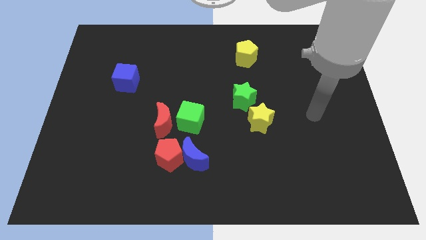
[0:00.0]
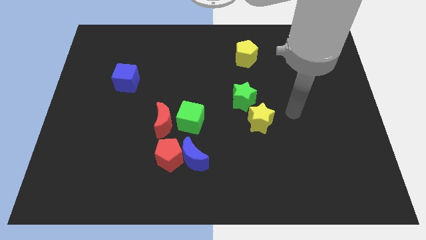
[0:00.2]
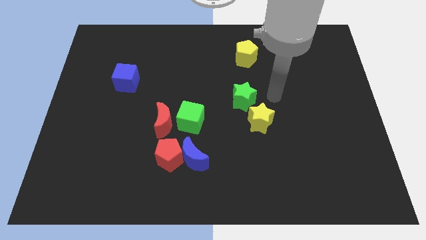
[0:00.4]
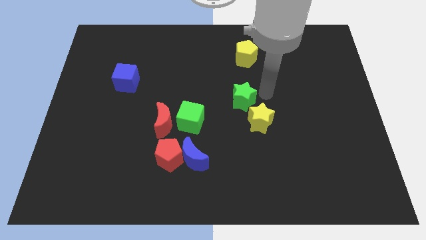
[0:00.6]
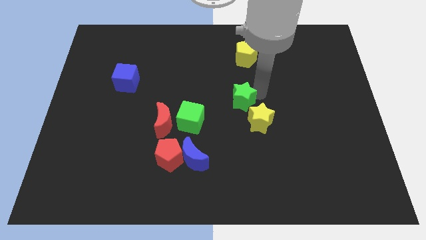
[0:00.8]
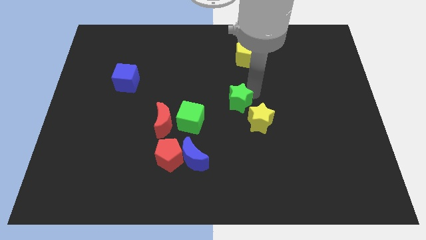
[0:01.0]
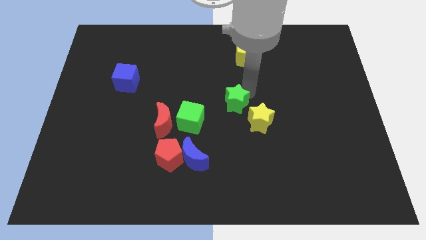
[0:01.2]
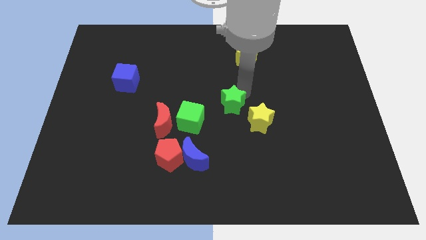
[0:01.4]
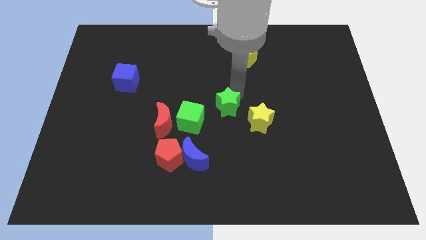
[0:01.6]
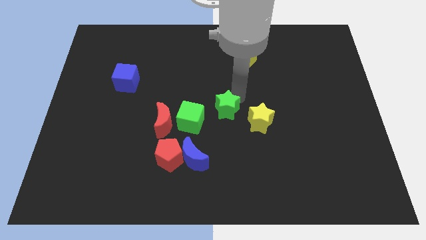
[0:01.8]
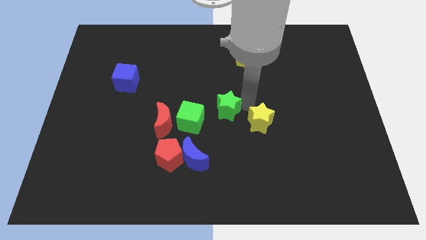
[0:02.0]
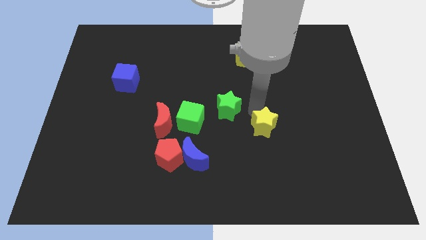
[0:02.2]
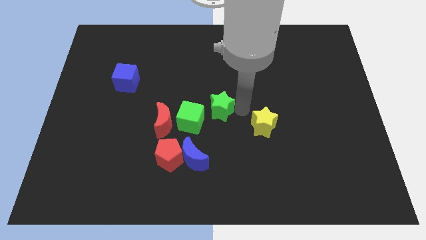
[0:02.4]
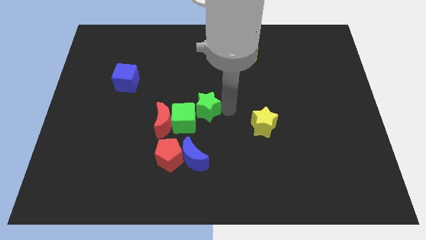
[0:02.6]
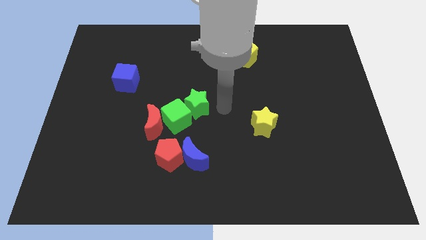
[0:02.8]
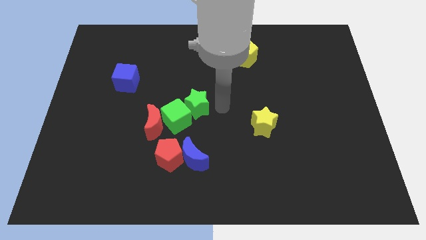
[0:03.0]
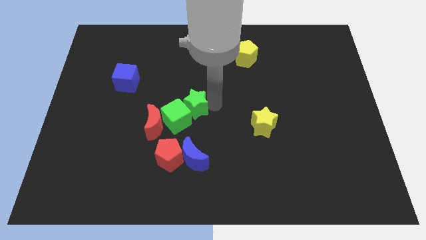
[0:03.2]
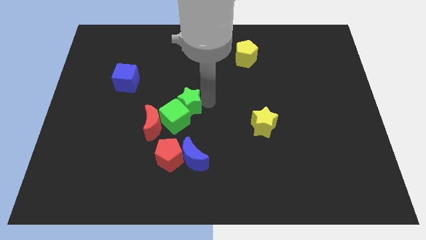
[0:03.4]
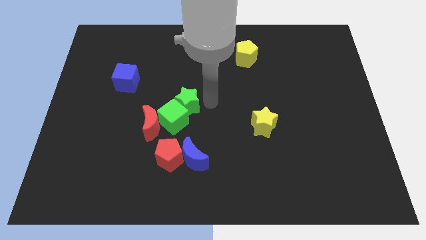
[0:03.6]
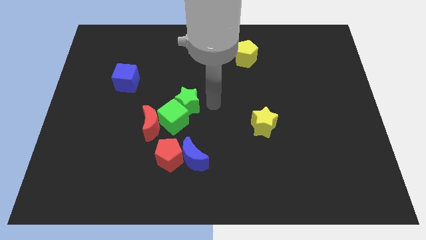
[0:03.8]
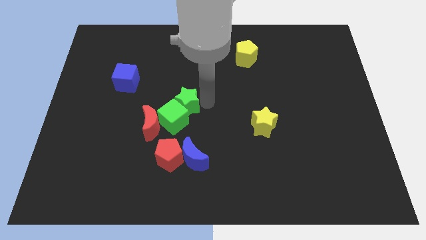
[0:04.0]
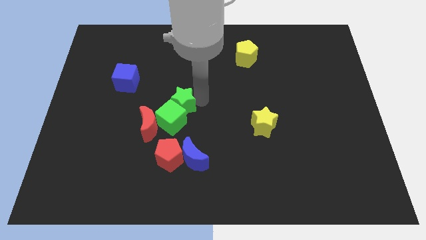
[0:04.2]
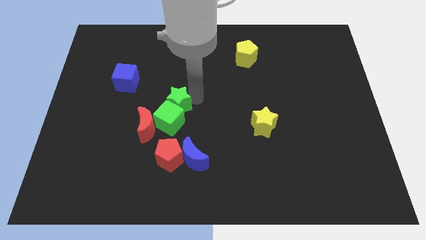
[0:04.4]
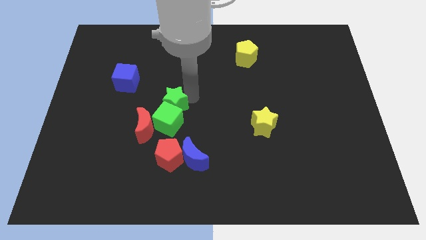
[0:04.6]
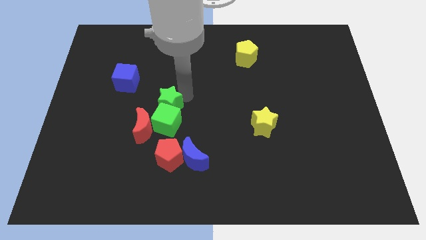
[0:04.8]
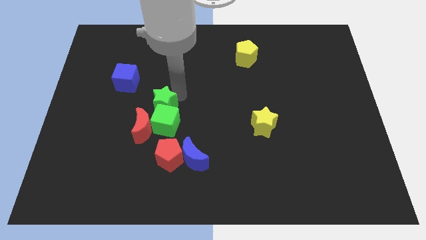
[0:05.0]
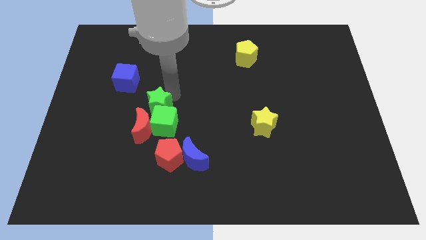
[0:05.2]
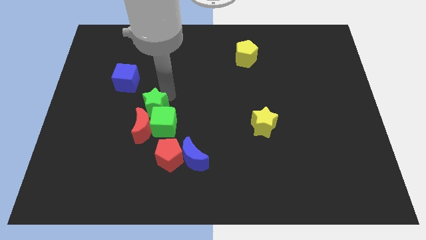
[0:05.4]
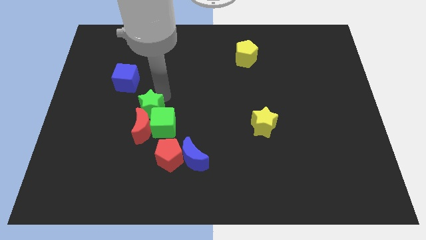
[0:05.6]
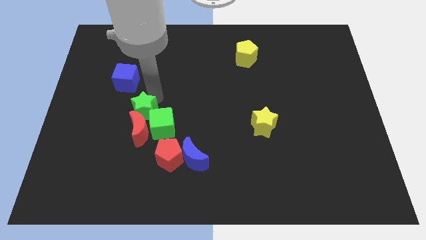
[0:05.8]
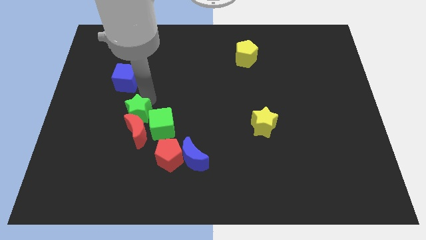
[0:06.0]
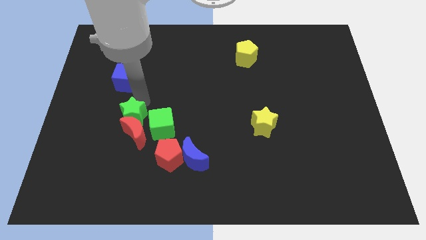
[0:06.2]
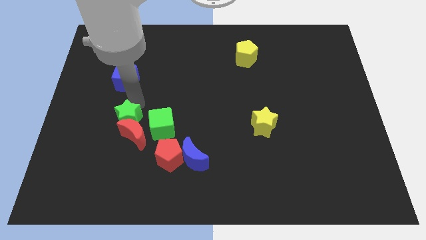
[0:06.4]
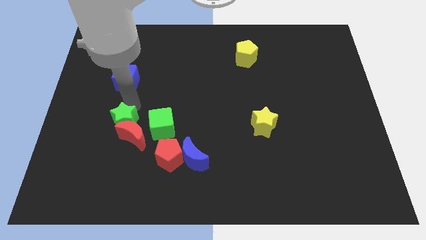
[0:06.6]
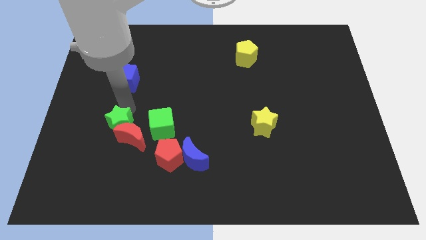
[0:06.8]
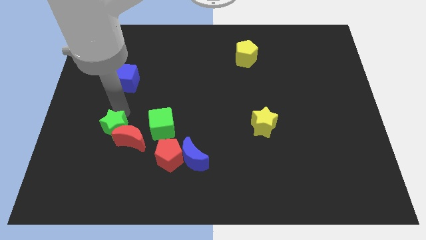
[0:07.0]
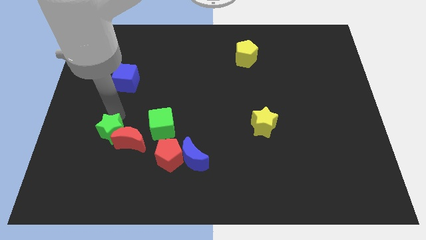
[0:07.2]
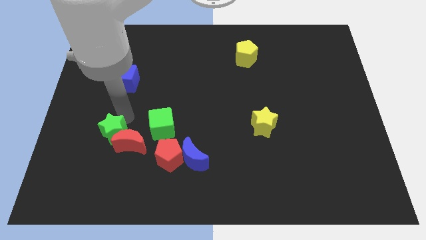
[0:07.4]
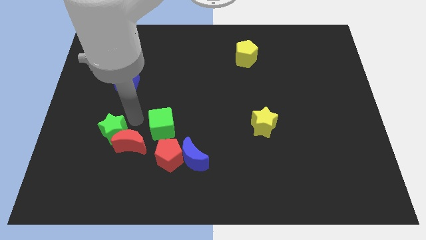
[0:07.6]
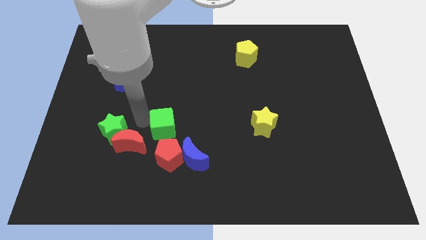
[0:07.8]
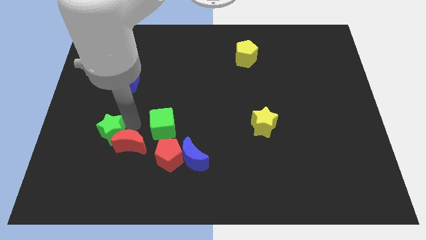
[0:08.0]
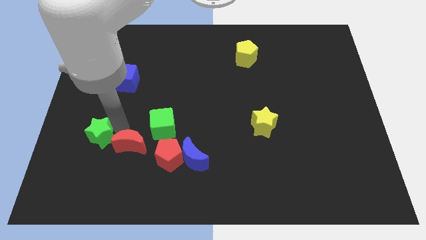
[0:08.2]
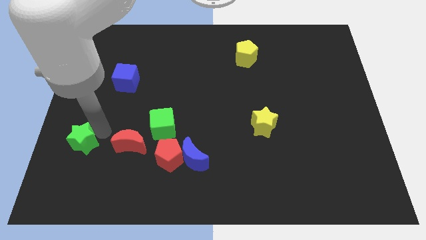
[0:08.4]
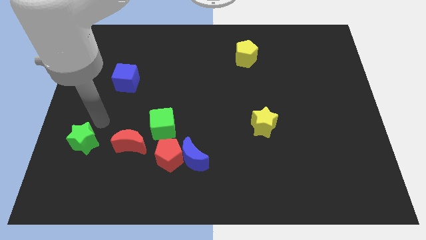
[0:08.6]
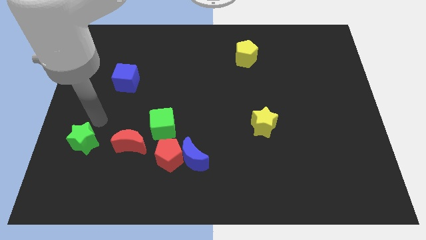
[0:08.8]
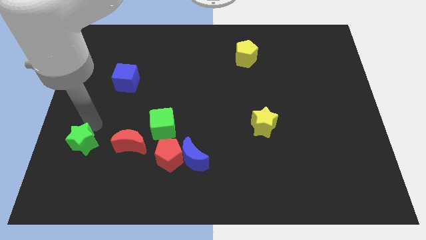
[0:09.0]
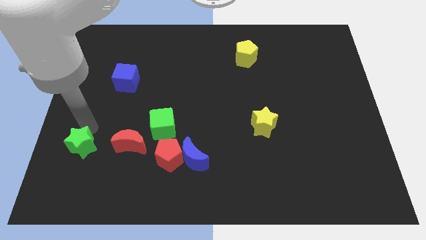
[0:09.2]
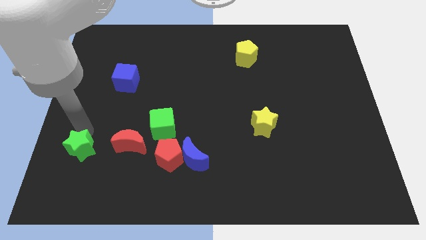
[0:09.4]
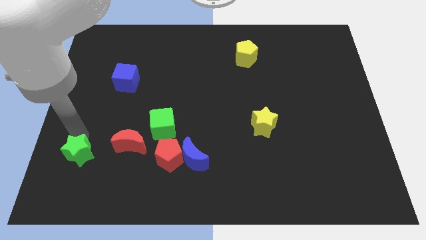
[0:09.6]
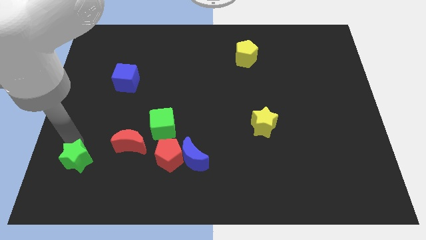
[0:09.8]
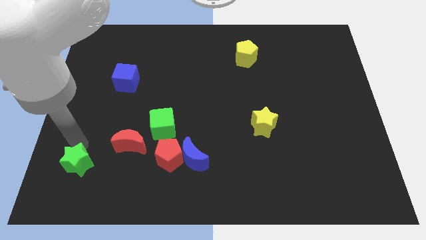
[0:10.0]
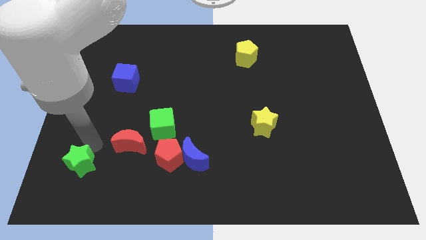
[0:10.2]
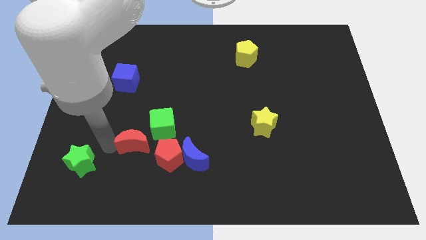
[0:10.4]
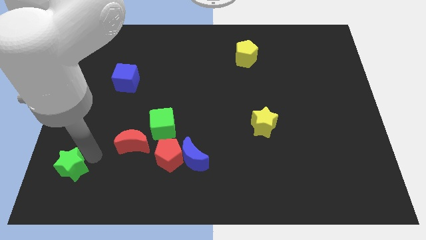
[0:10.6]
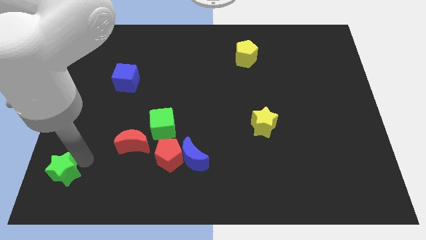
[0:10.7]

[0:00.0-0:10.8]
slide the green star to the bottom left corner

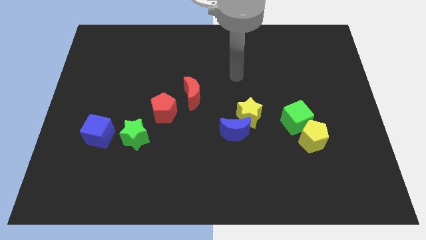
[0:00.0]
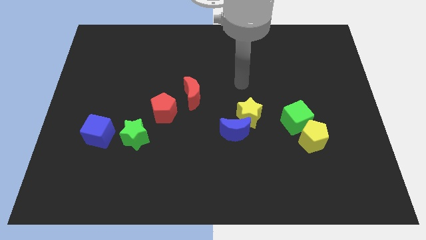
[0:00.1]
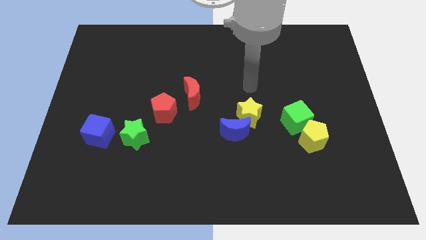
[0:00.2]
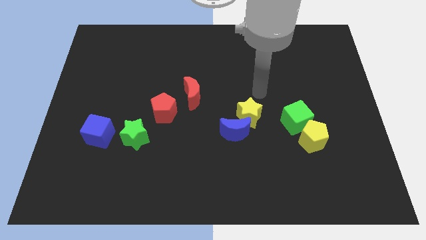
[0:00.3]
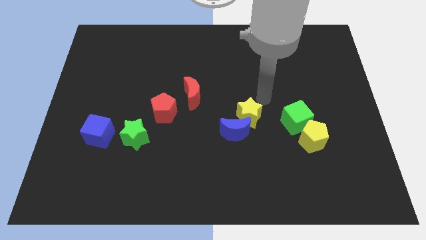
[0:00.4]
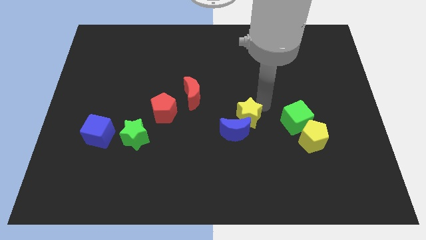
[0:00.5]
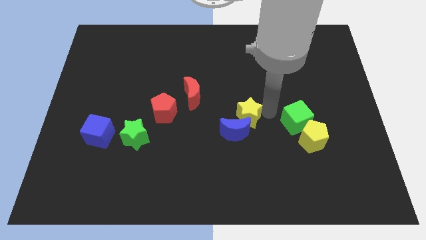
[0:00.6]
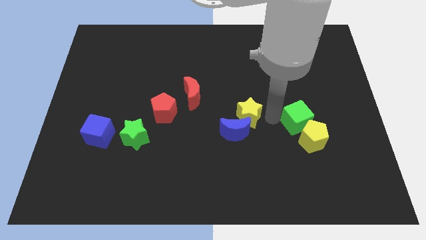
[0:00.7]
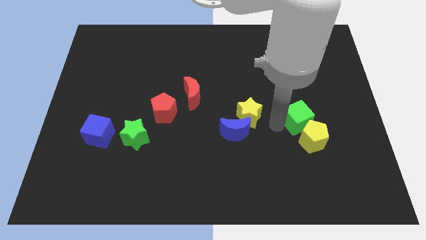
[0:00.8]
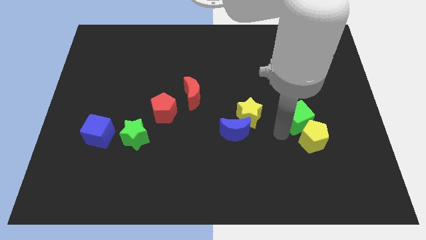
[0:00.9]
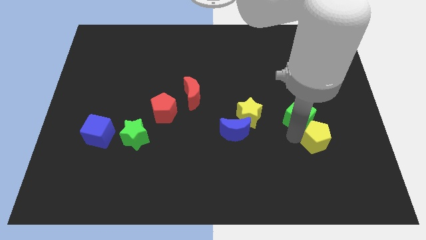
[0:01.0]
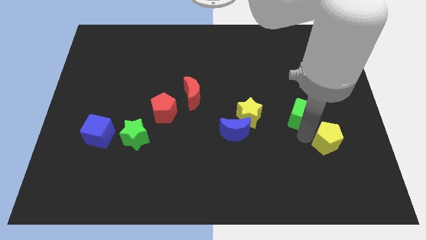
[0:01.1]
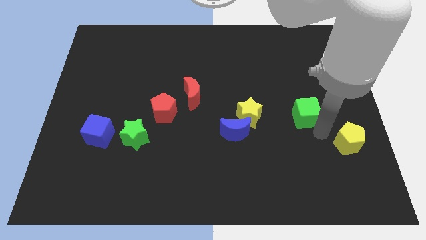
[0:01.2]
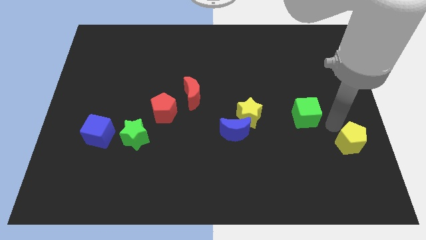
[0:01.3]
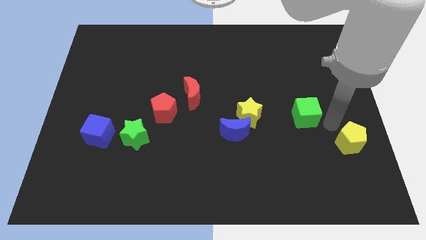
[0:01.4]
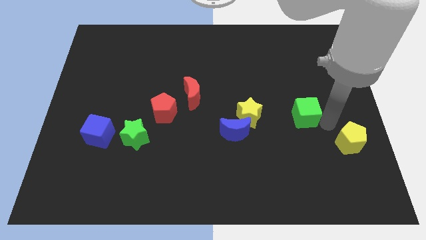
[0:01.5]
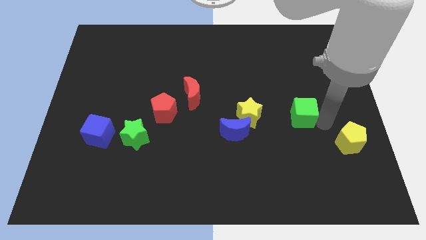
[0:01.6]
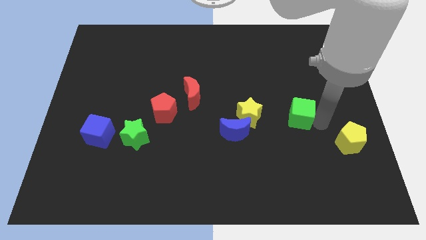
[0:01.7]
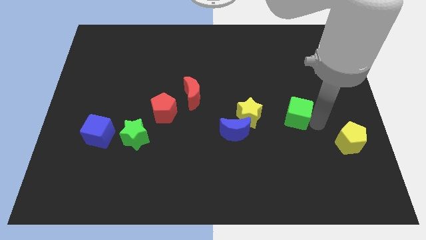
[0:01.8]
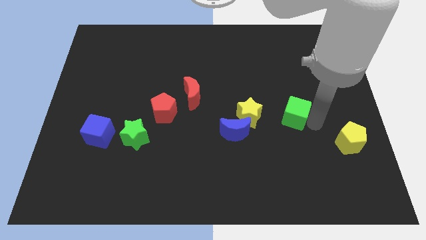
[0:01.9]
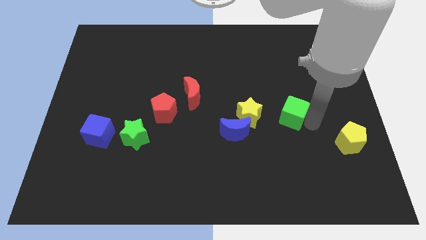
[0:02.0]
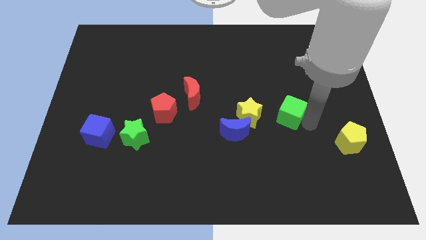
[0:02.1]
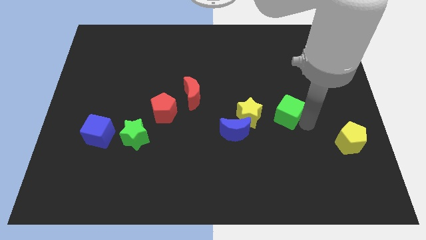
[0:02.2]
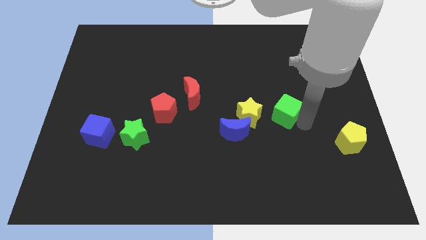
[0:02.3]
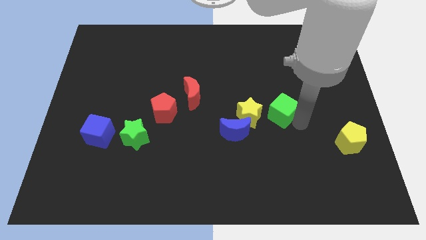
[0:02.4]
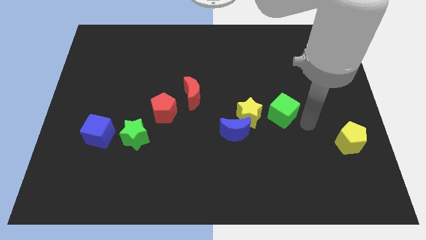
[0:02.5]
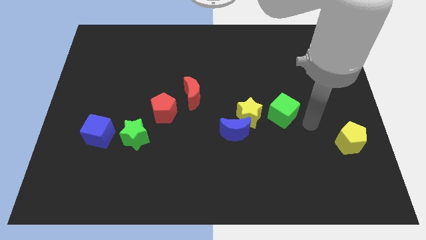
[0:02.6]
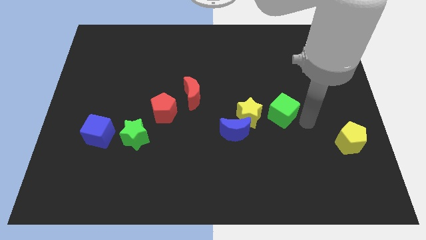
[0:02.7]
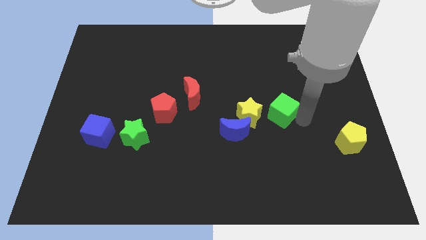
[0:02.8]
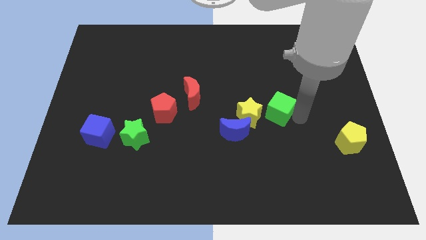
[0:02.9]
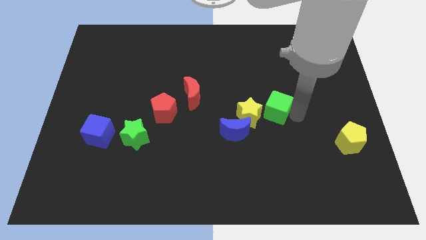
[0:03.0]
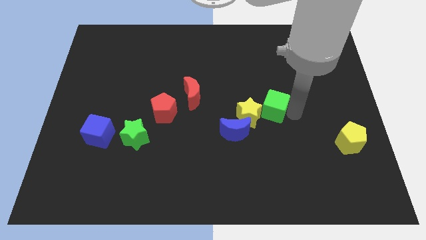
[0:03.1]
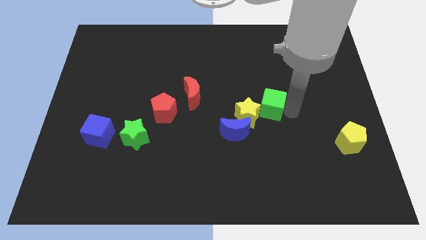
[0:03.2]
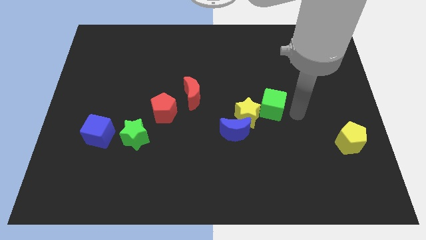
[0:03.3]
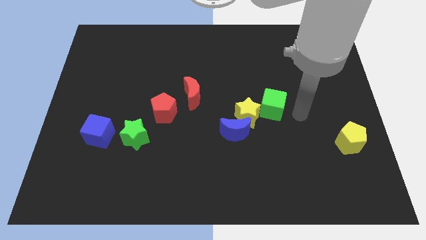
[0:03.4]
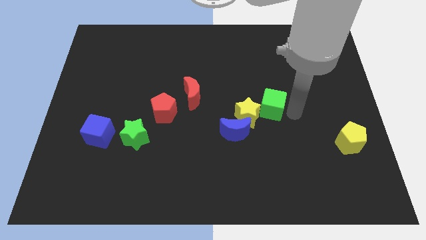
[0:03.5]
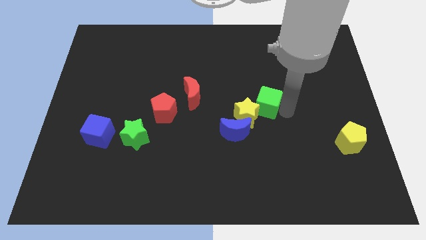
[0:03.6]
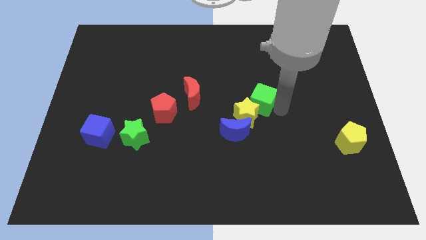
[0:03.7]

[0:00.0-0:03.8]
put the green cube to the middle of the board
